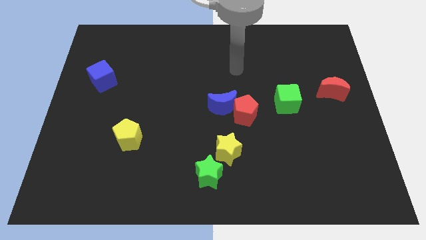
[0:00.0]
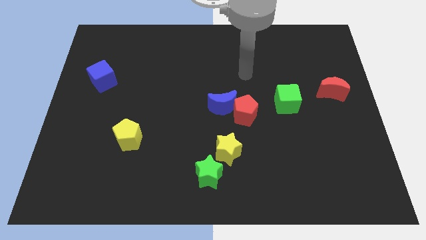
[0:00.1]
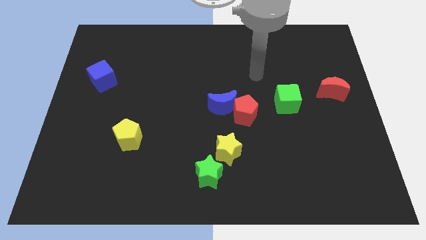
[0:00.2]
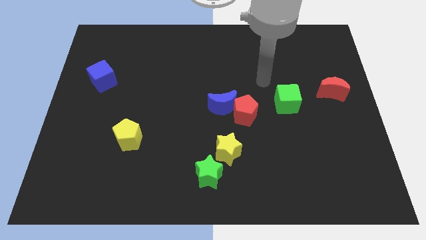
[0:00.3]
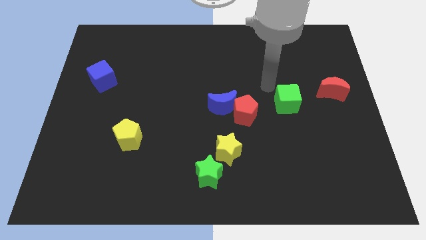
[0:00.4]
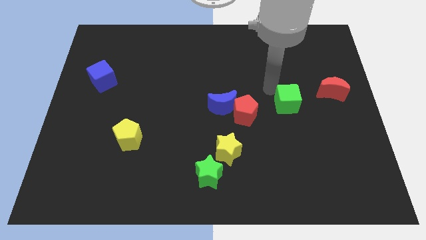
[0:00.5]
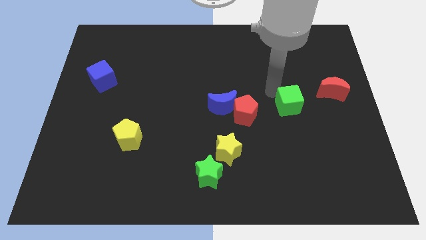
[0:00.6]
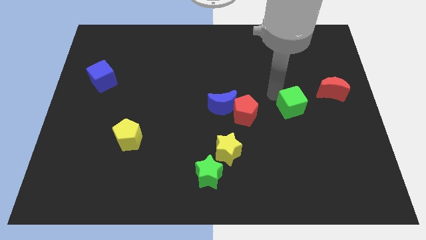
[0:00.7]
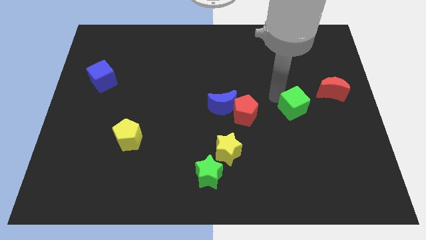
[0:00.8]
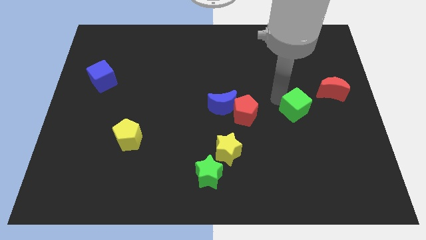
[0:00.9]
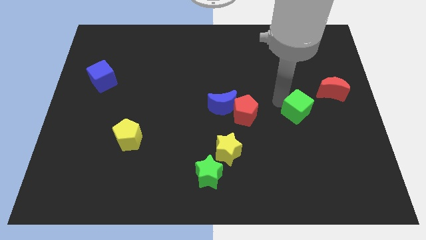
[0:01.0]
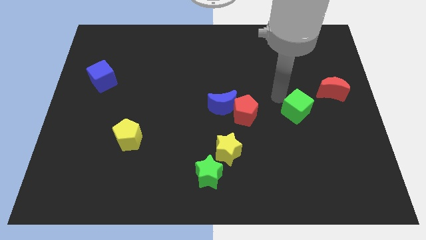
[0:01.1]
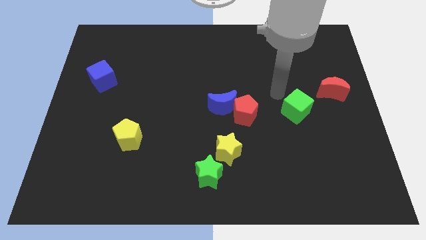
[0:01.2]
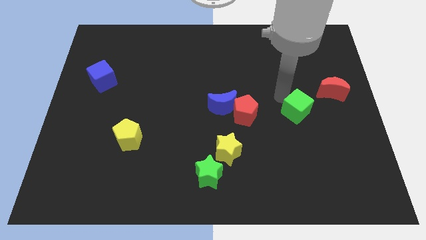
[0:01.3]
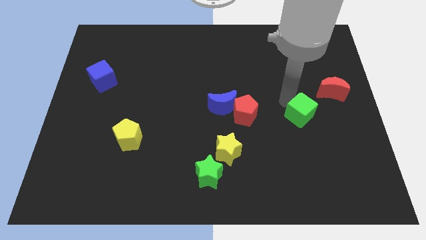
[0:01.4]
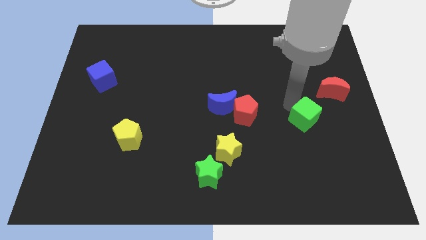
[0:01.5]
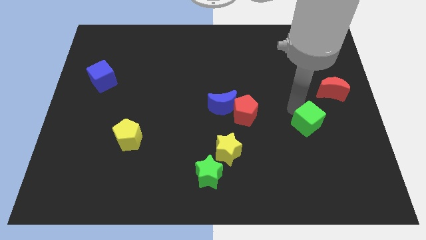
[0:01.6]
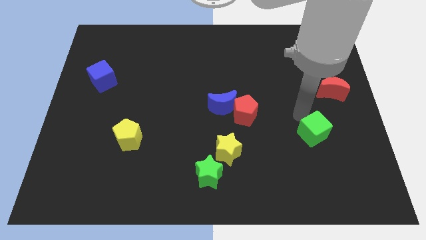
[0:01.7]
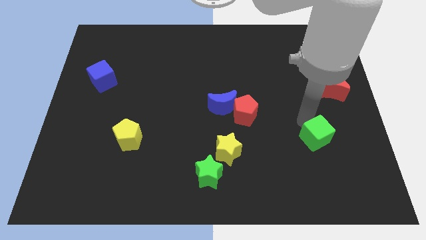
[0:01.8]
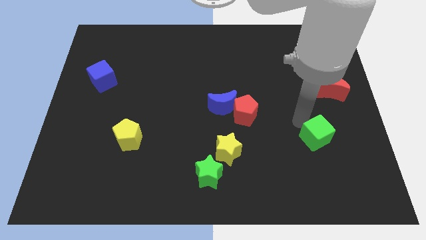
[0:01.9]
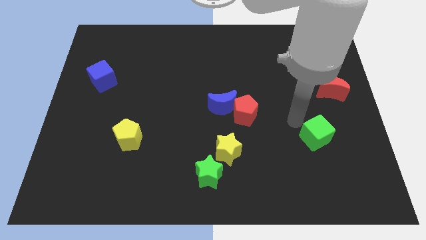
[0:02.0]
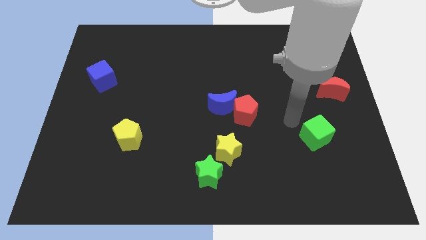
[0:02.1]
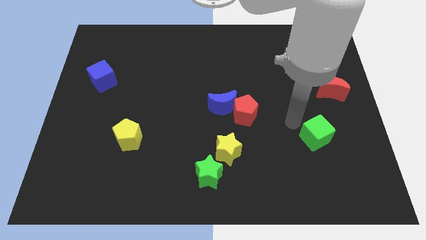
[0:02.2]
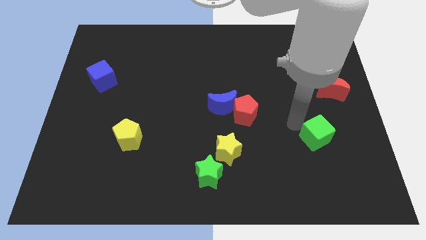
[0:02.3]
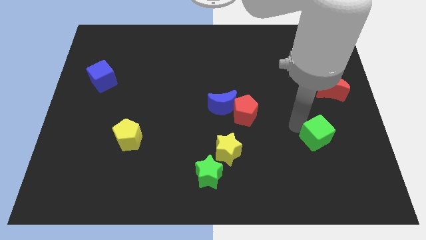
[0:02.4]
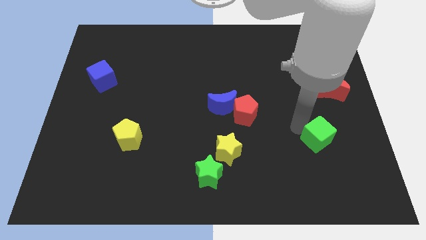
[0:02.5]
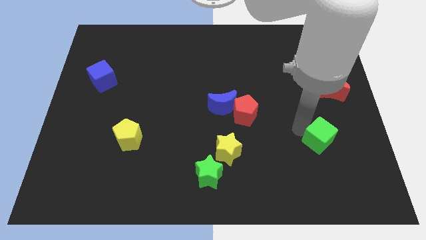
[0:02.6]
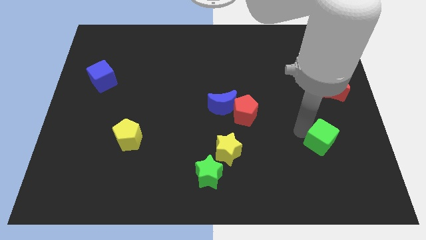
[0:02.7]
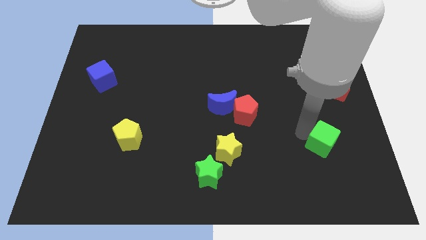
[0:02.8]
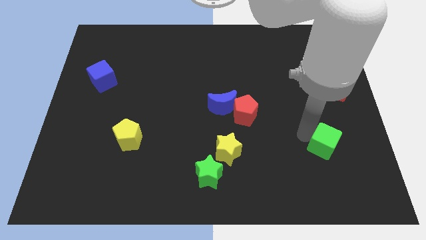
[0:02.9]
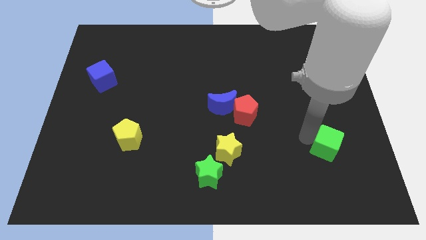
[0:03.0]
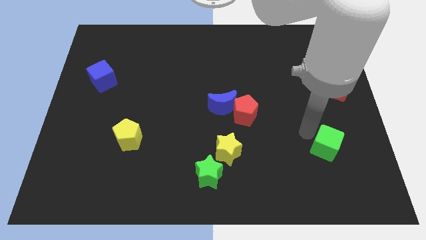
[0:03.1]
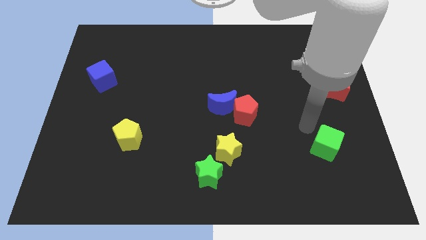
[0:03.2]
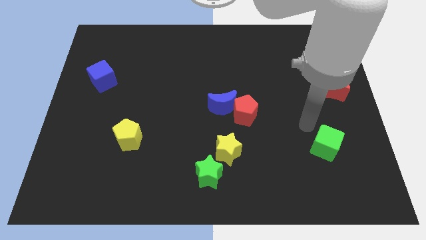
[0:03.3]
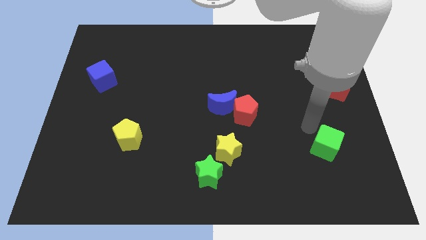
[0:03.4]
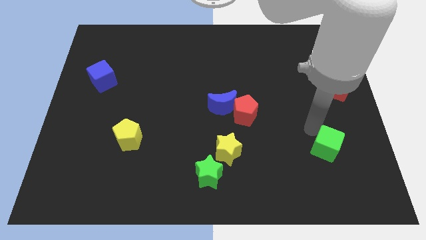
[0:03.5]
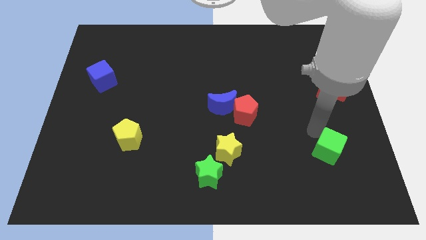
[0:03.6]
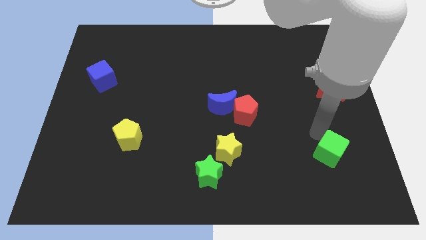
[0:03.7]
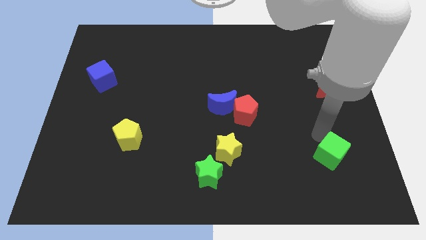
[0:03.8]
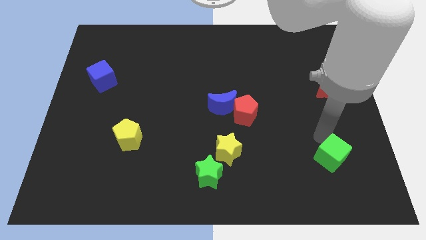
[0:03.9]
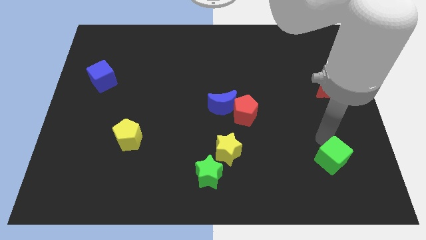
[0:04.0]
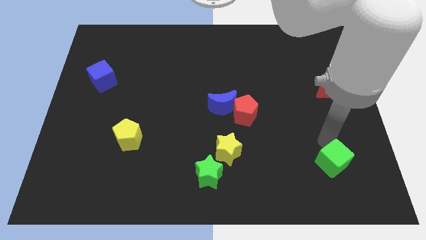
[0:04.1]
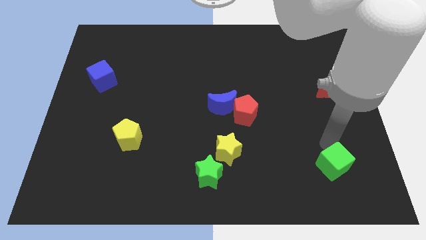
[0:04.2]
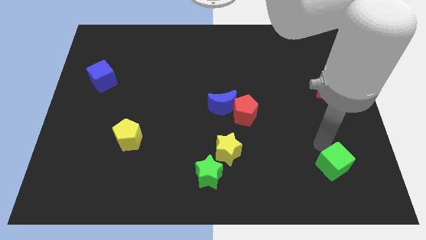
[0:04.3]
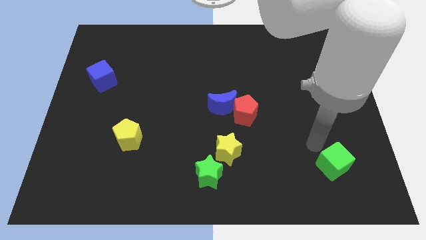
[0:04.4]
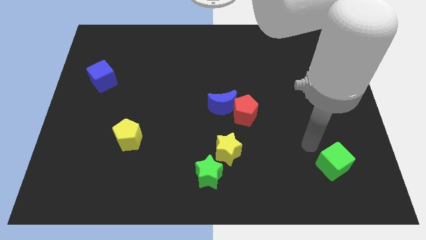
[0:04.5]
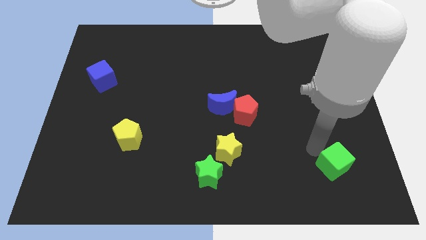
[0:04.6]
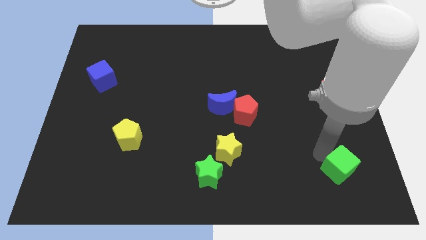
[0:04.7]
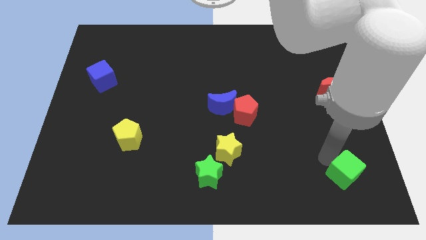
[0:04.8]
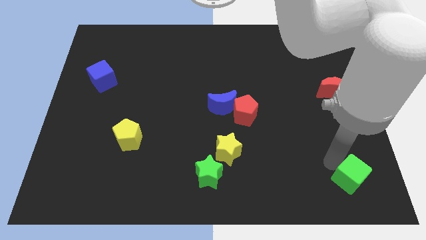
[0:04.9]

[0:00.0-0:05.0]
move the green cube to the bottom right of the board

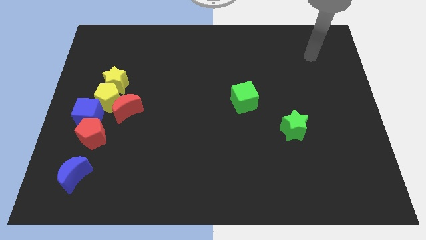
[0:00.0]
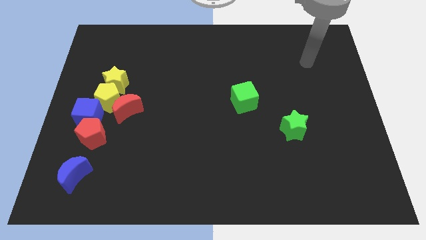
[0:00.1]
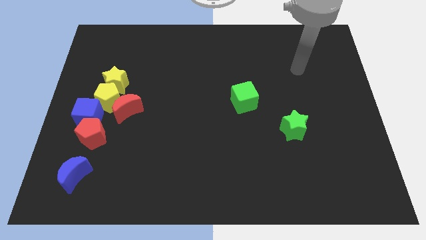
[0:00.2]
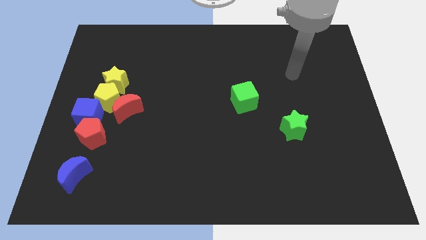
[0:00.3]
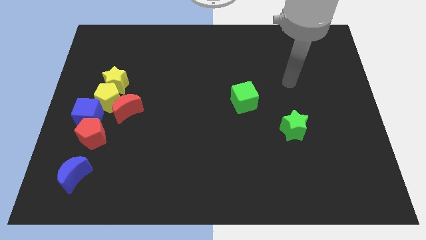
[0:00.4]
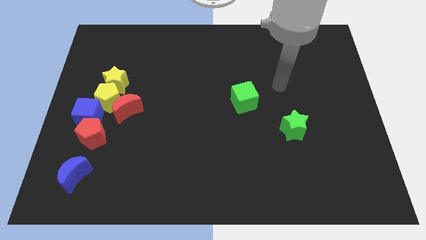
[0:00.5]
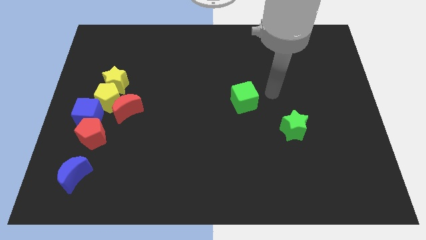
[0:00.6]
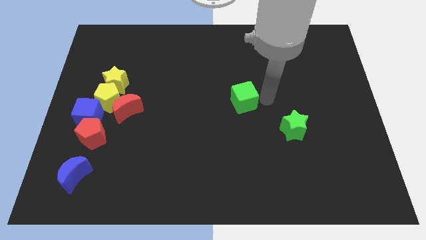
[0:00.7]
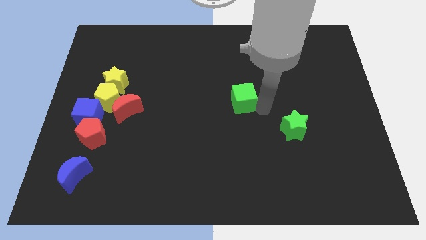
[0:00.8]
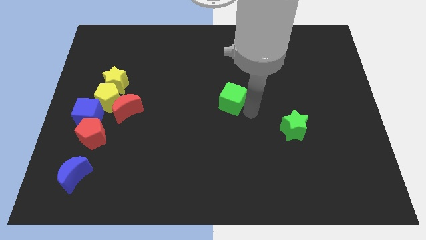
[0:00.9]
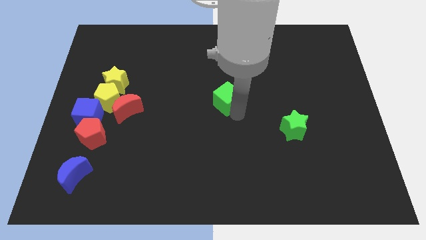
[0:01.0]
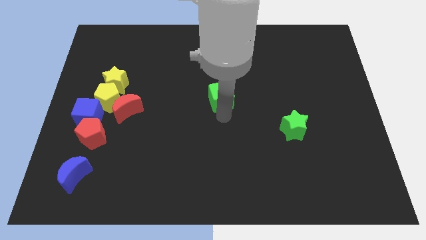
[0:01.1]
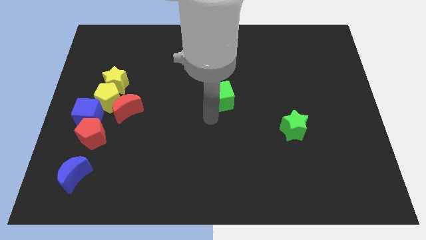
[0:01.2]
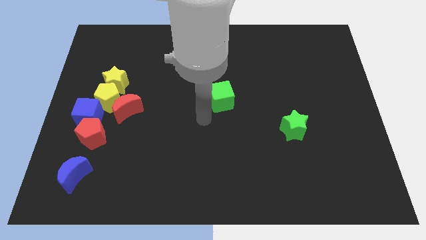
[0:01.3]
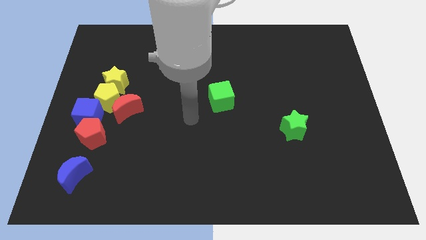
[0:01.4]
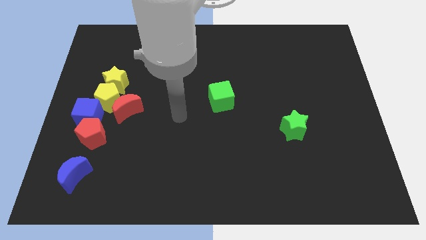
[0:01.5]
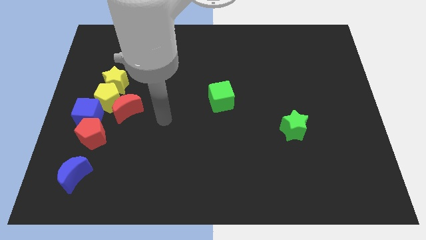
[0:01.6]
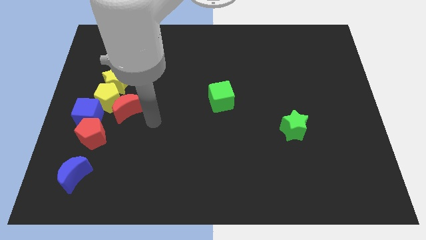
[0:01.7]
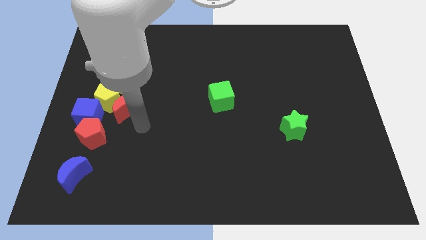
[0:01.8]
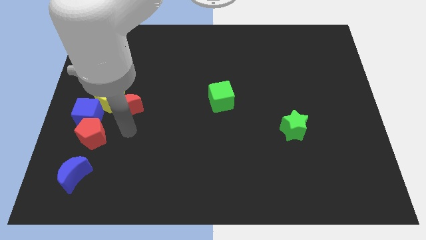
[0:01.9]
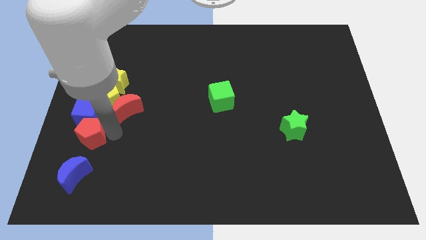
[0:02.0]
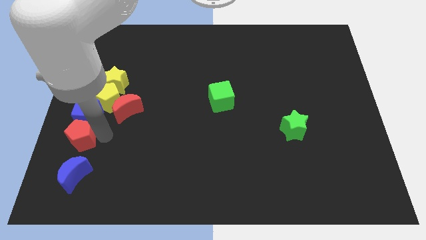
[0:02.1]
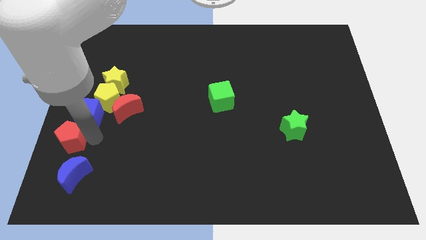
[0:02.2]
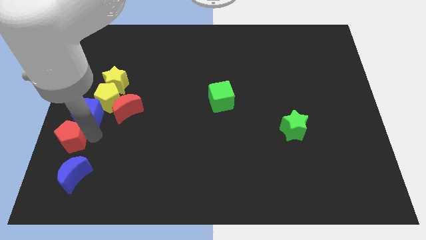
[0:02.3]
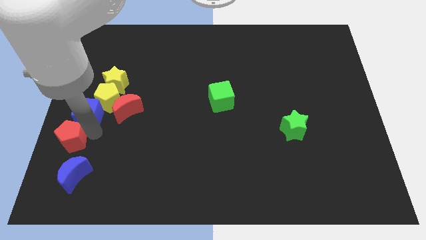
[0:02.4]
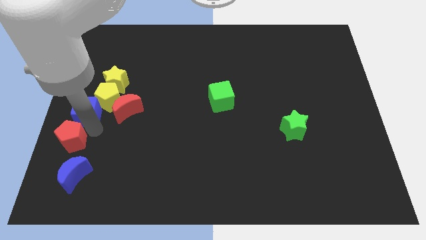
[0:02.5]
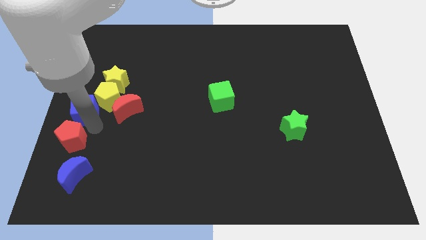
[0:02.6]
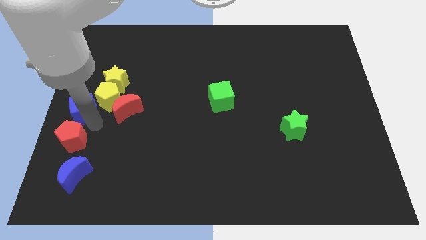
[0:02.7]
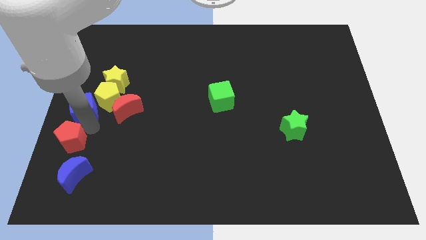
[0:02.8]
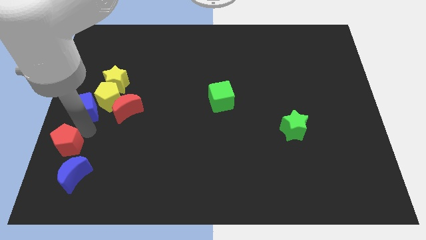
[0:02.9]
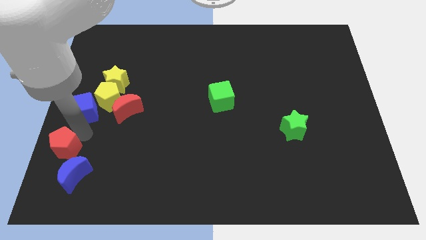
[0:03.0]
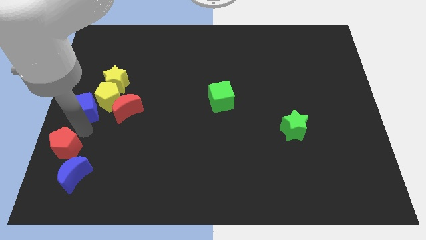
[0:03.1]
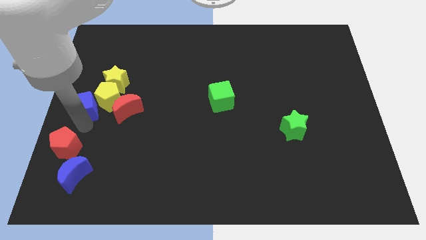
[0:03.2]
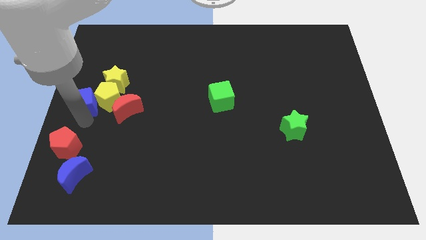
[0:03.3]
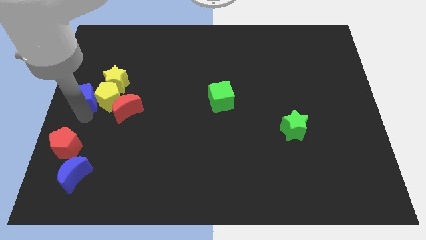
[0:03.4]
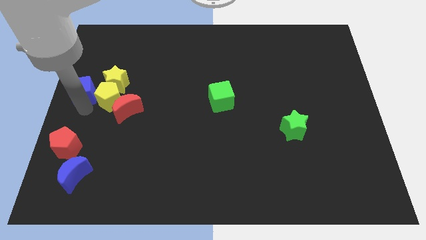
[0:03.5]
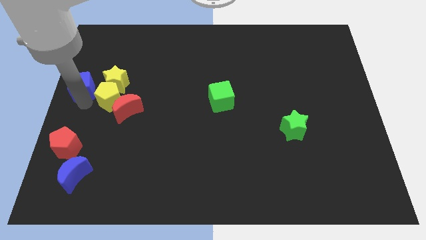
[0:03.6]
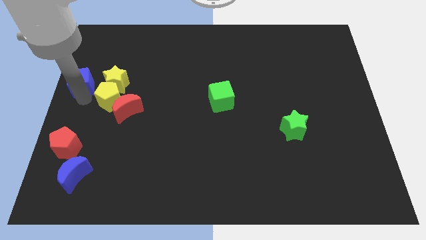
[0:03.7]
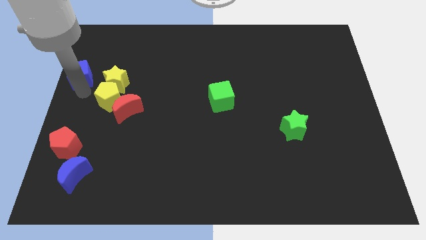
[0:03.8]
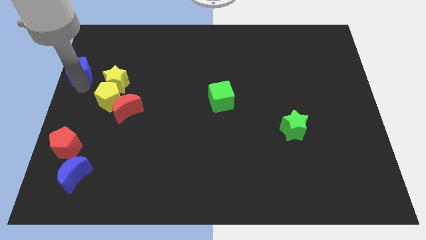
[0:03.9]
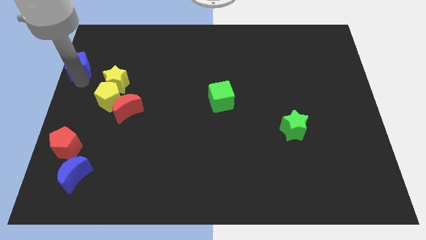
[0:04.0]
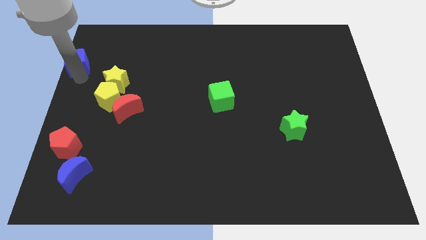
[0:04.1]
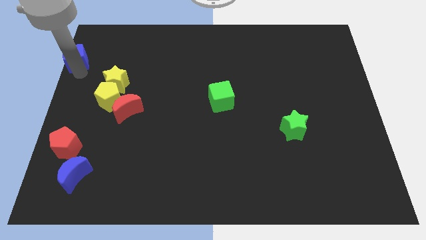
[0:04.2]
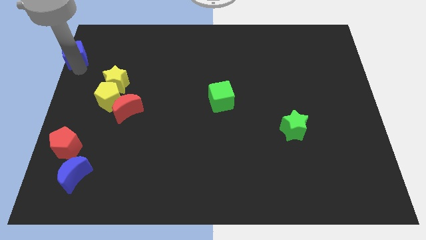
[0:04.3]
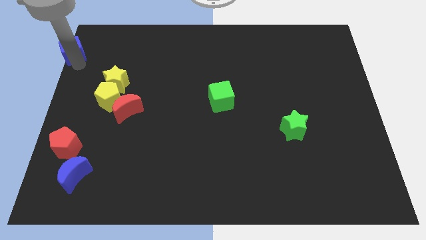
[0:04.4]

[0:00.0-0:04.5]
put the blue cube to the top left corner
